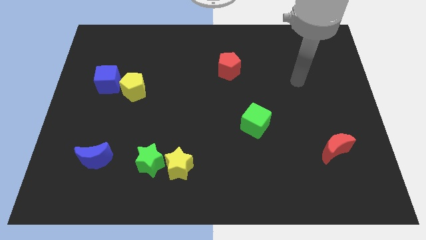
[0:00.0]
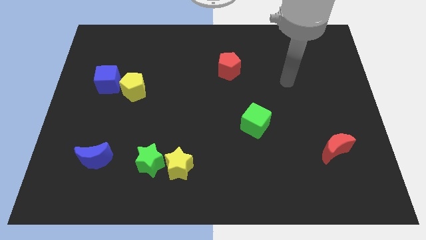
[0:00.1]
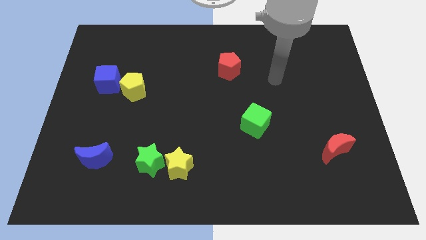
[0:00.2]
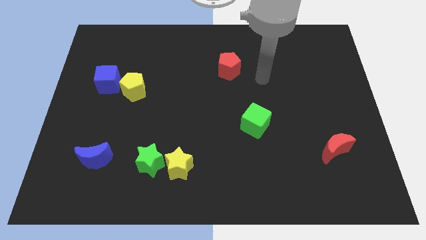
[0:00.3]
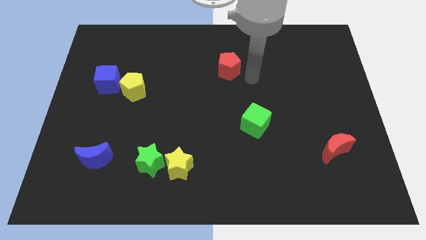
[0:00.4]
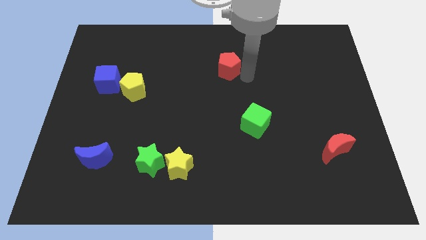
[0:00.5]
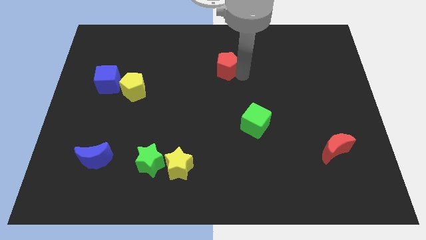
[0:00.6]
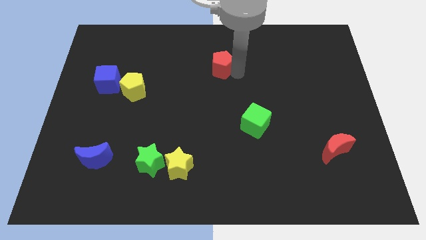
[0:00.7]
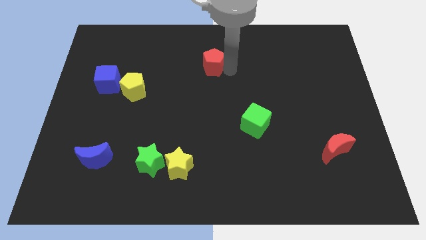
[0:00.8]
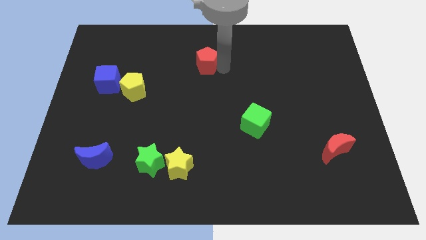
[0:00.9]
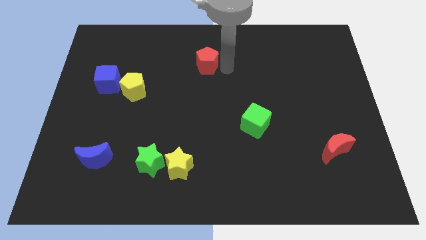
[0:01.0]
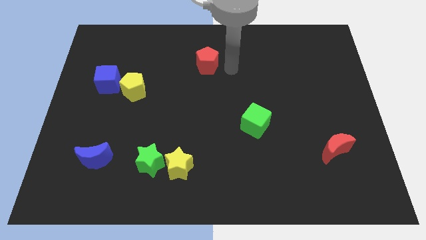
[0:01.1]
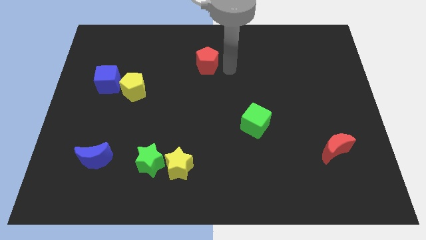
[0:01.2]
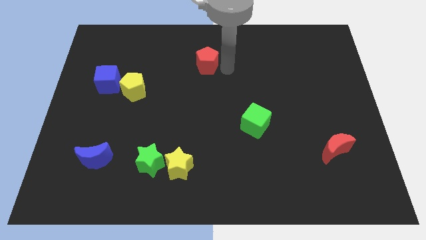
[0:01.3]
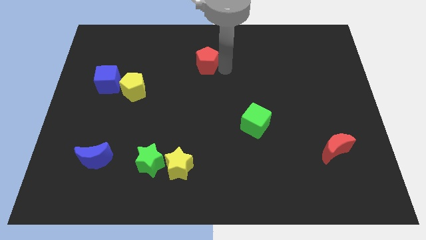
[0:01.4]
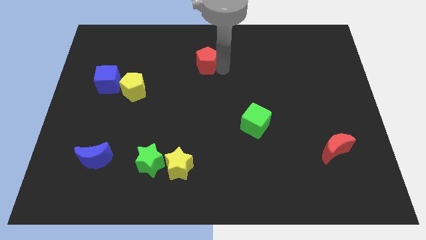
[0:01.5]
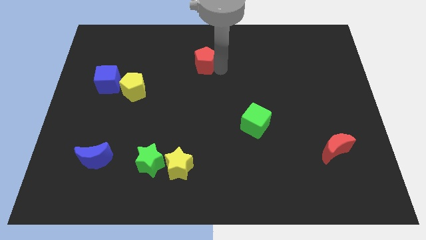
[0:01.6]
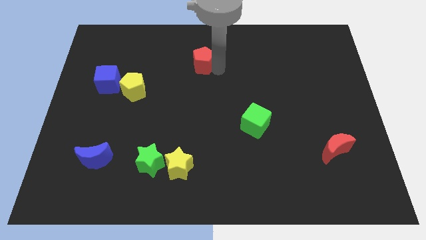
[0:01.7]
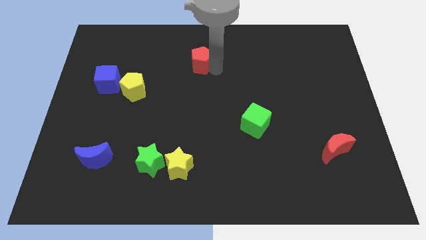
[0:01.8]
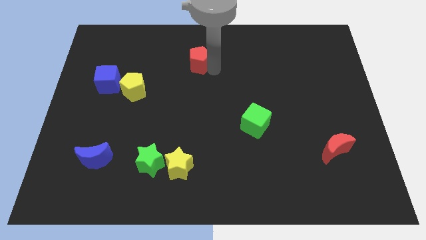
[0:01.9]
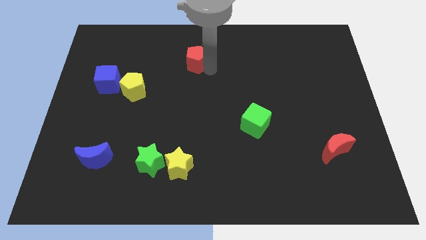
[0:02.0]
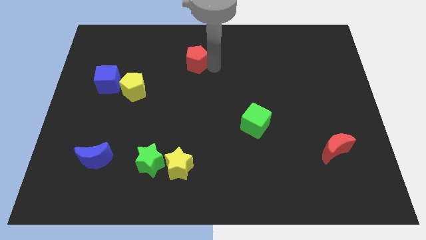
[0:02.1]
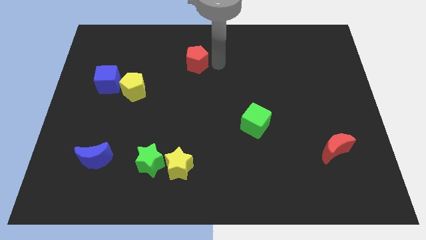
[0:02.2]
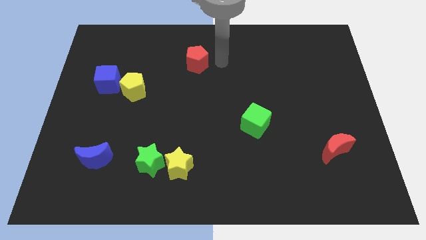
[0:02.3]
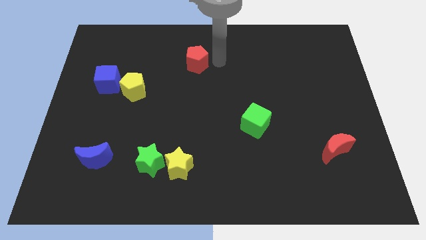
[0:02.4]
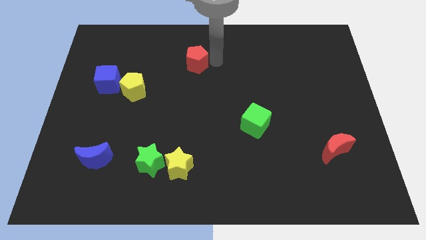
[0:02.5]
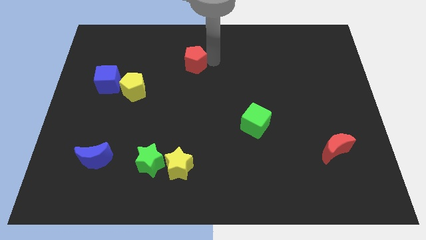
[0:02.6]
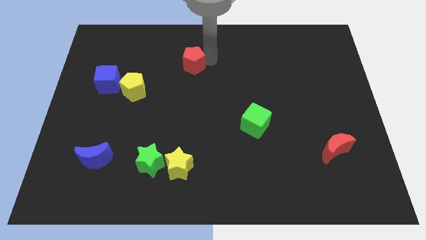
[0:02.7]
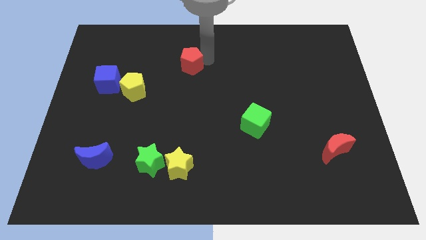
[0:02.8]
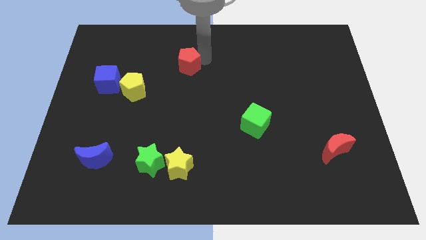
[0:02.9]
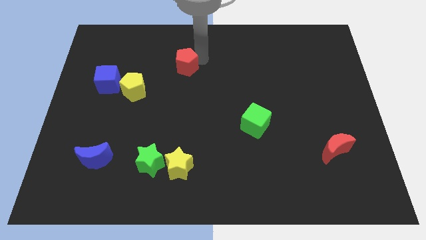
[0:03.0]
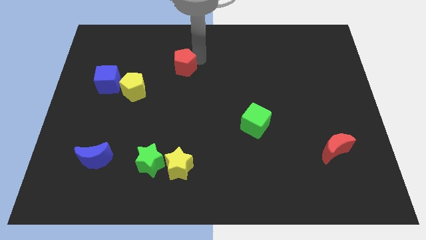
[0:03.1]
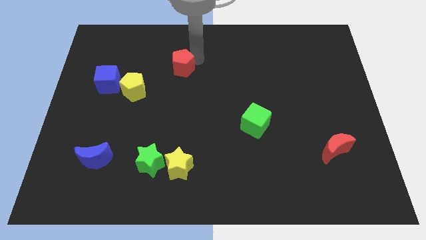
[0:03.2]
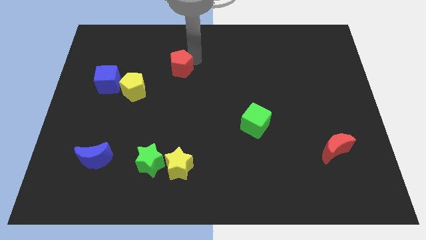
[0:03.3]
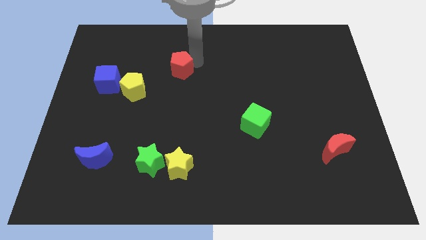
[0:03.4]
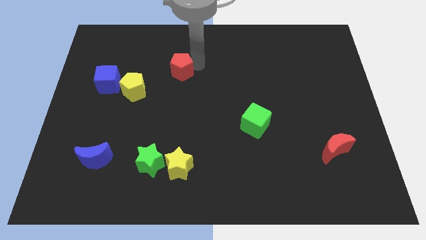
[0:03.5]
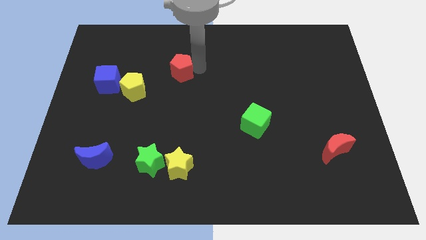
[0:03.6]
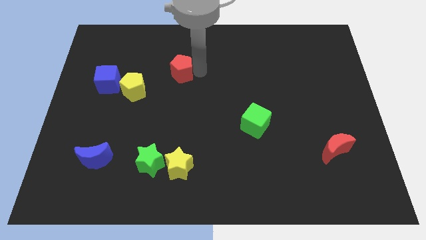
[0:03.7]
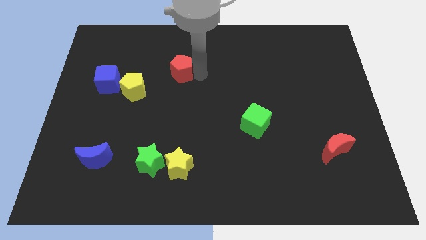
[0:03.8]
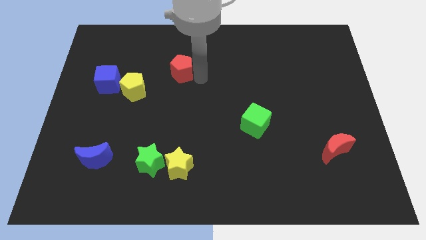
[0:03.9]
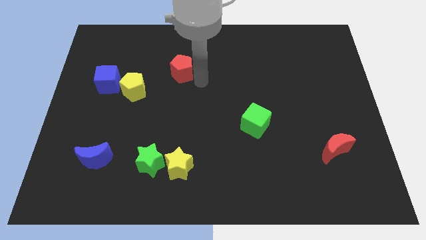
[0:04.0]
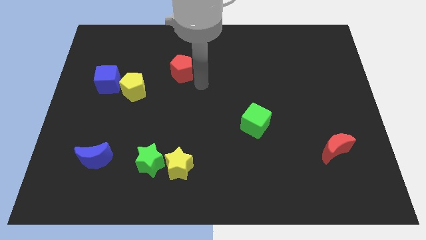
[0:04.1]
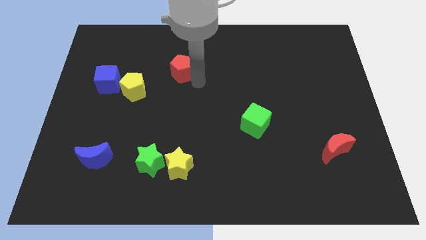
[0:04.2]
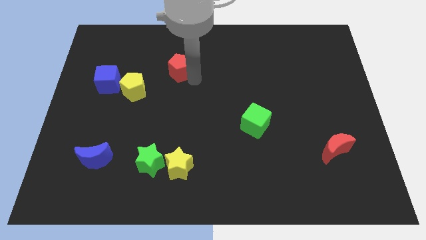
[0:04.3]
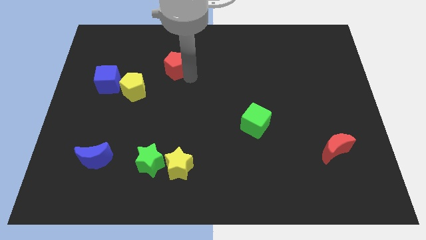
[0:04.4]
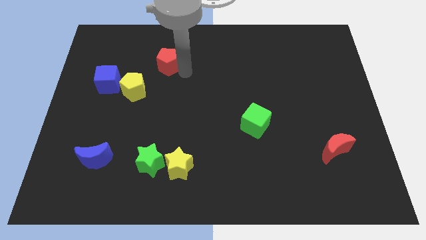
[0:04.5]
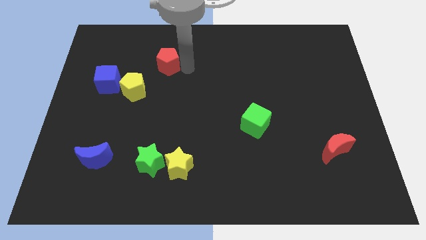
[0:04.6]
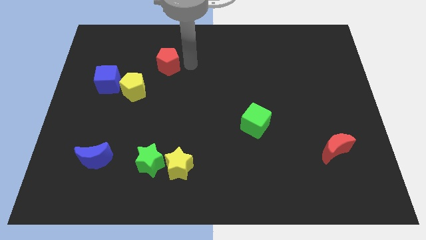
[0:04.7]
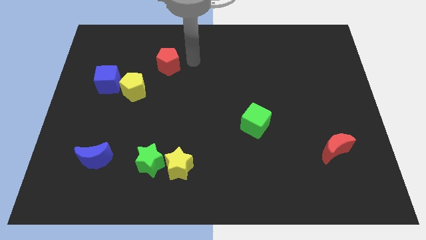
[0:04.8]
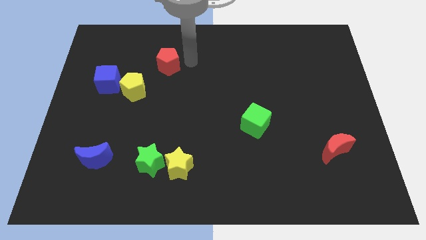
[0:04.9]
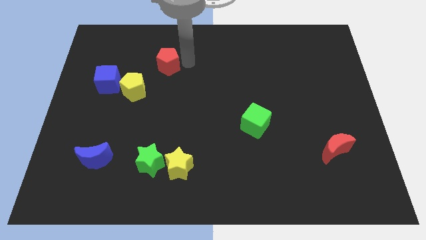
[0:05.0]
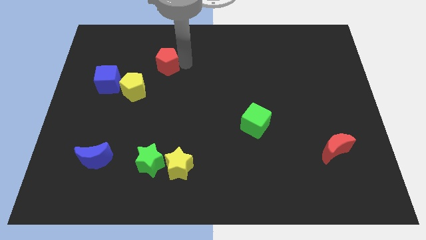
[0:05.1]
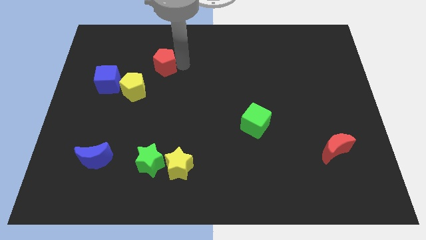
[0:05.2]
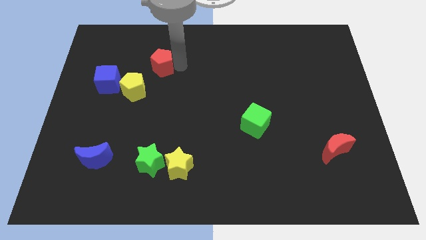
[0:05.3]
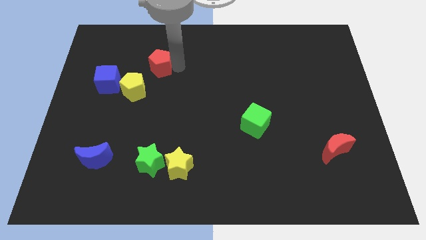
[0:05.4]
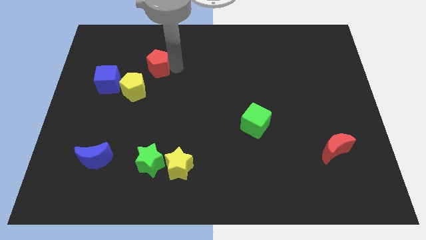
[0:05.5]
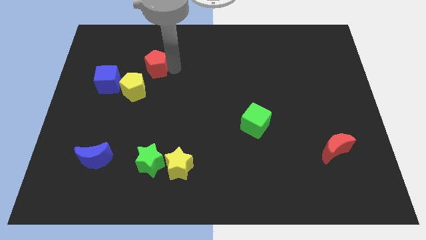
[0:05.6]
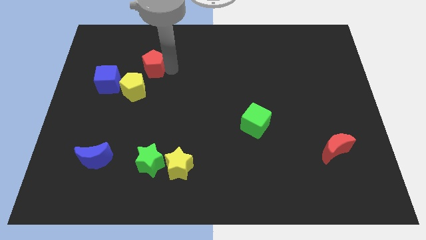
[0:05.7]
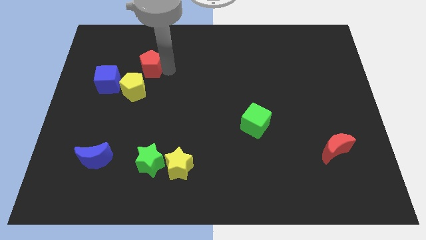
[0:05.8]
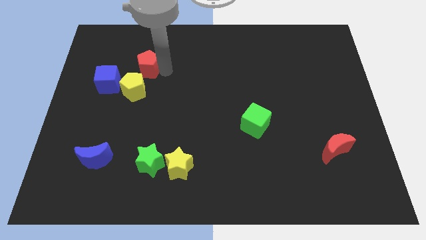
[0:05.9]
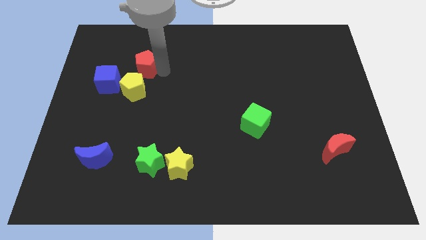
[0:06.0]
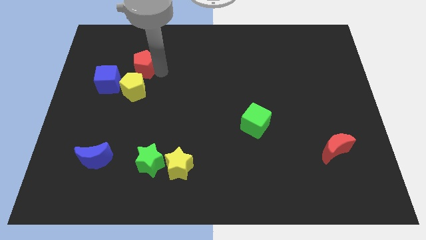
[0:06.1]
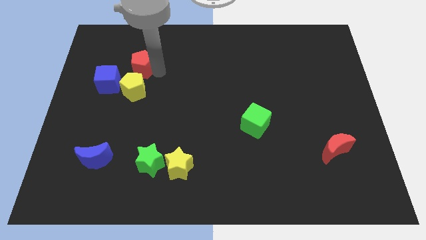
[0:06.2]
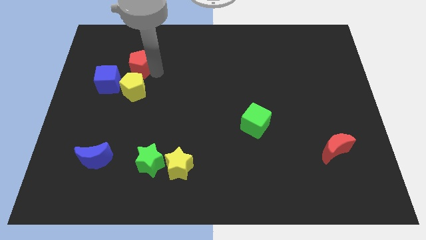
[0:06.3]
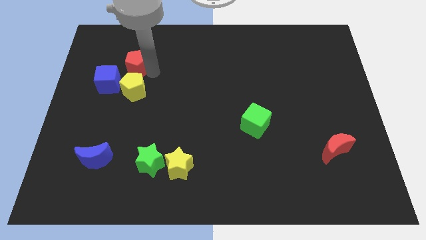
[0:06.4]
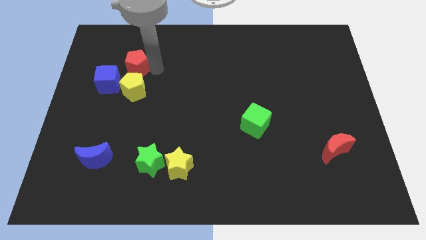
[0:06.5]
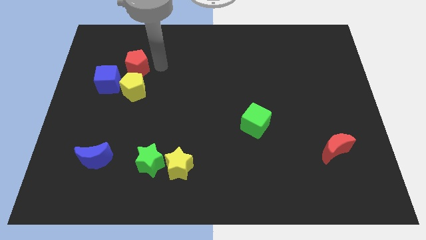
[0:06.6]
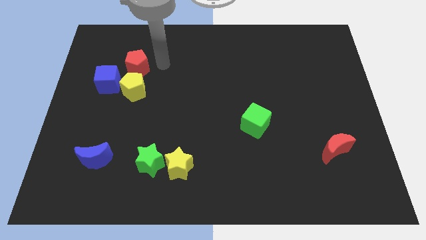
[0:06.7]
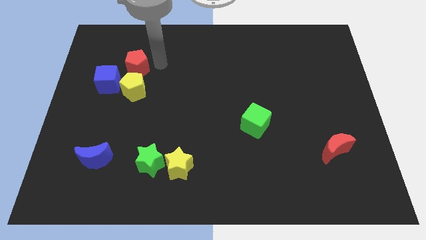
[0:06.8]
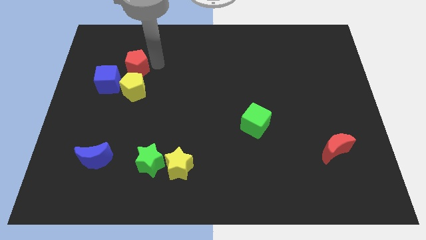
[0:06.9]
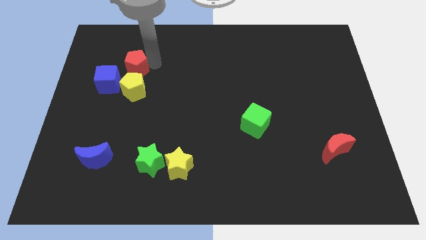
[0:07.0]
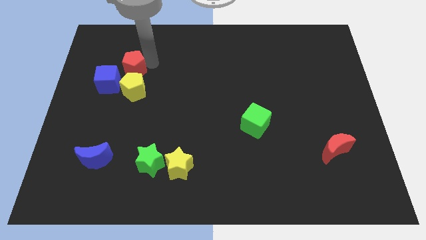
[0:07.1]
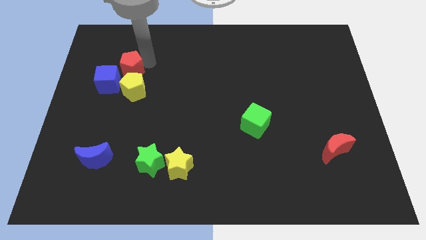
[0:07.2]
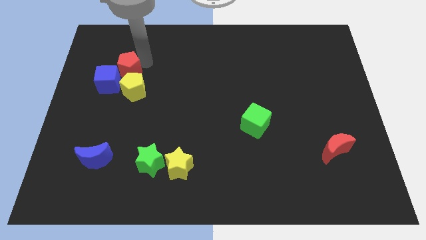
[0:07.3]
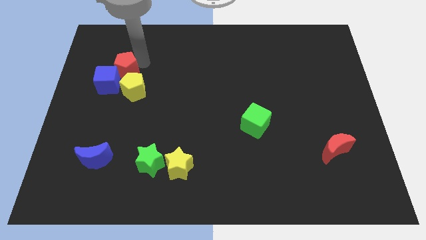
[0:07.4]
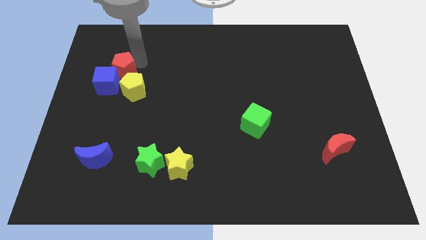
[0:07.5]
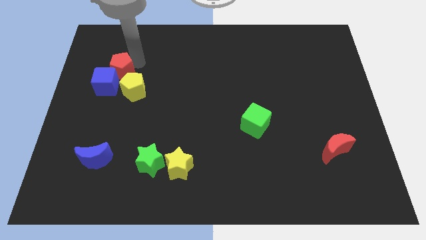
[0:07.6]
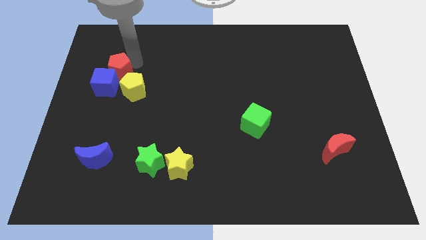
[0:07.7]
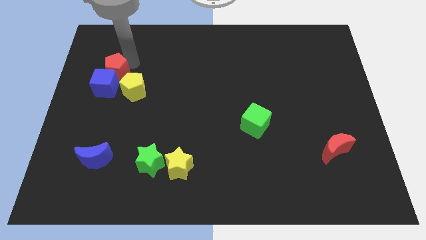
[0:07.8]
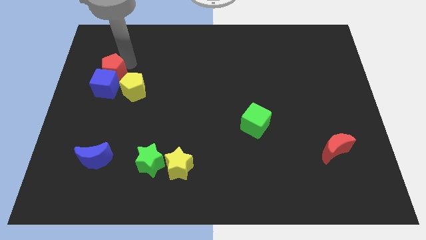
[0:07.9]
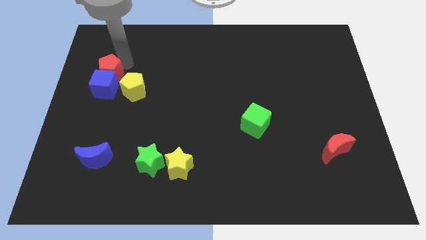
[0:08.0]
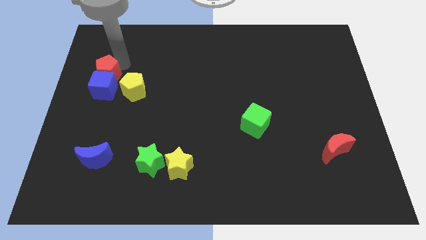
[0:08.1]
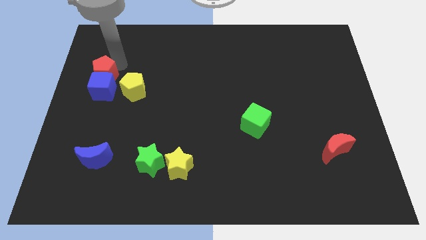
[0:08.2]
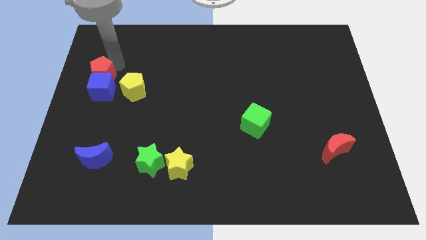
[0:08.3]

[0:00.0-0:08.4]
put the red pentagon to the center left
